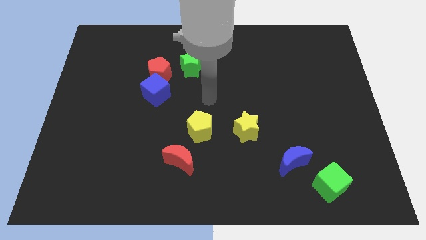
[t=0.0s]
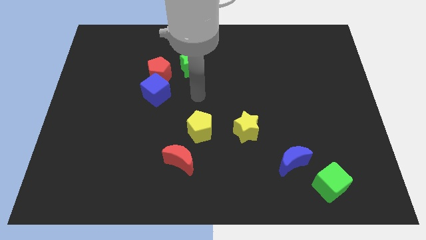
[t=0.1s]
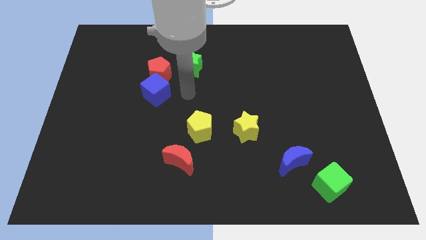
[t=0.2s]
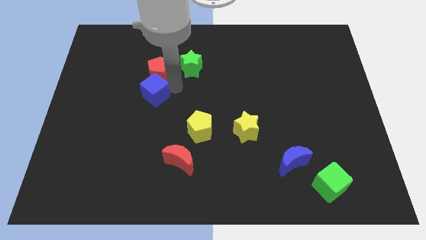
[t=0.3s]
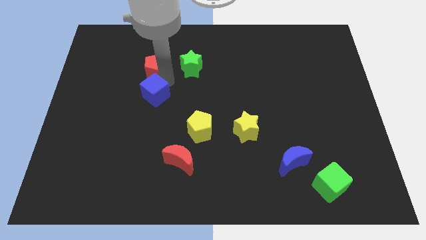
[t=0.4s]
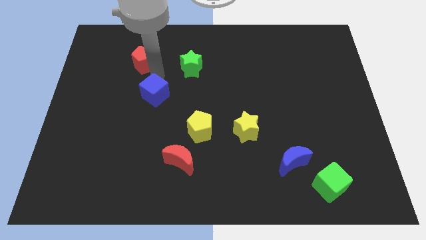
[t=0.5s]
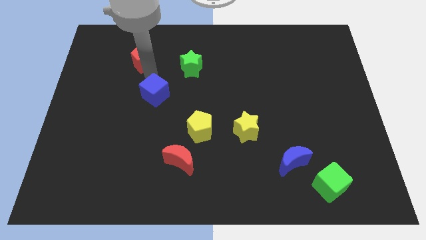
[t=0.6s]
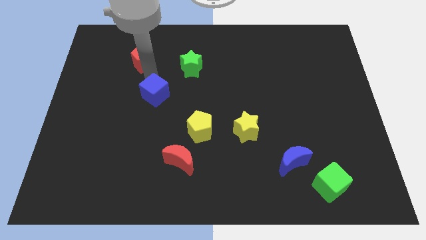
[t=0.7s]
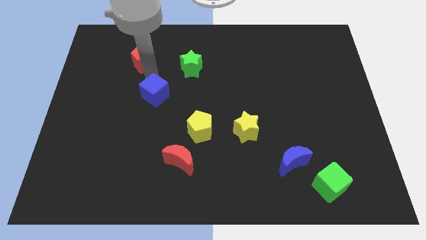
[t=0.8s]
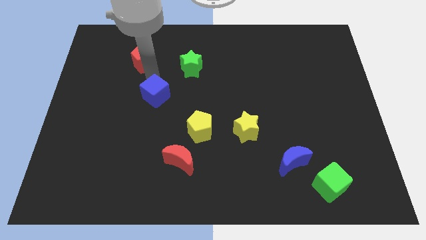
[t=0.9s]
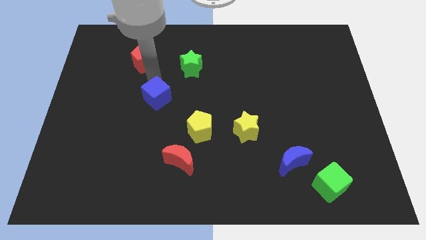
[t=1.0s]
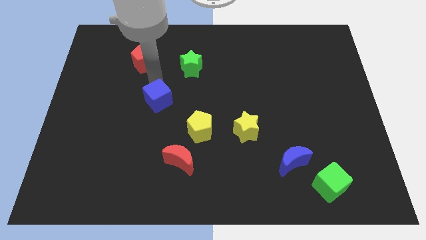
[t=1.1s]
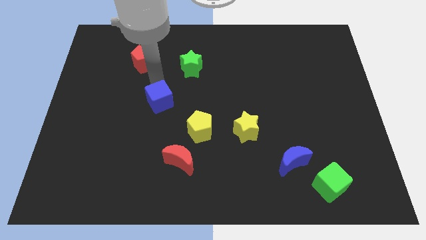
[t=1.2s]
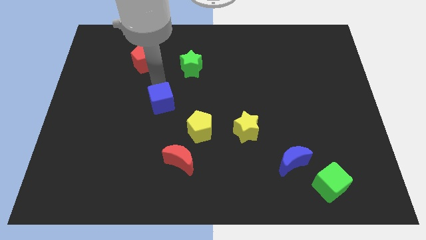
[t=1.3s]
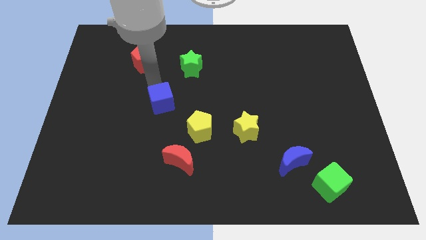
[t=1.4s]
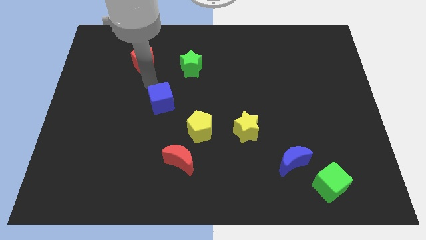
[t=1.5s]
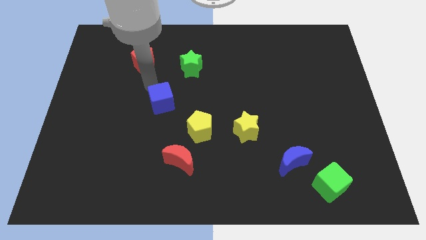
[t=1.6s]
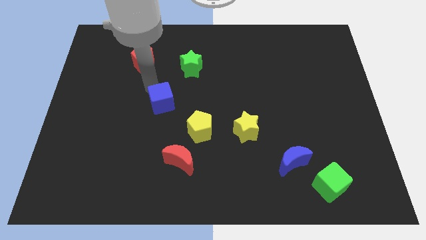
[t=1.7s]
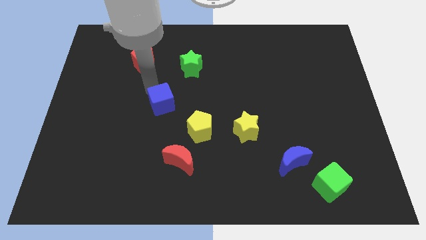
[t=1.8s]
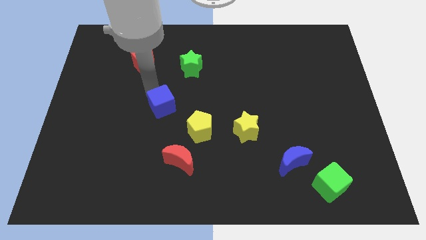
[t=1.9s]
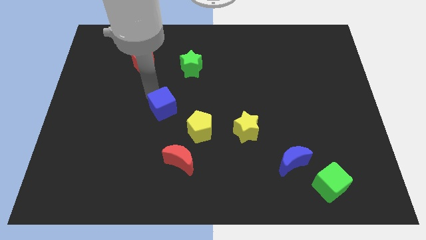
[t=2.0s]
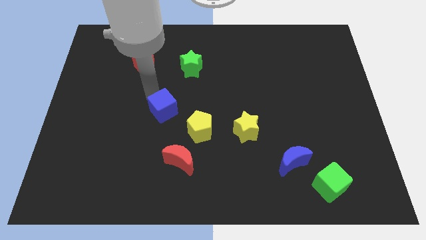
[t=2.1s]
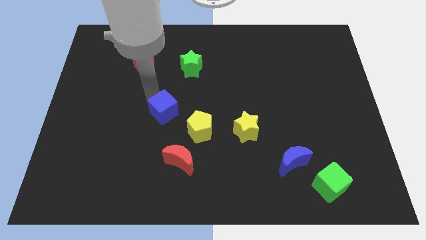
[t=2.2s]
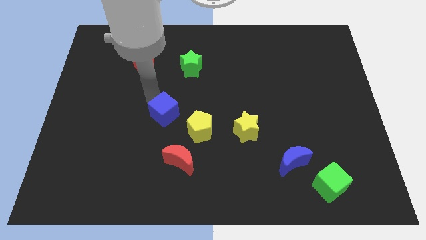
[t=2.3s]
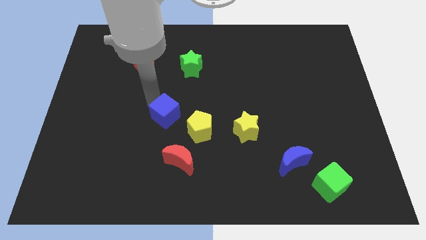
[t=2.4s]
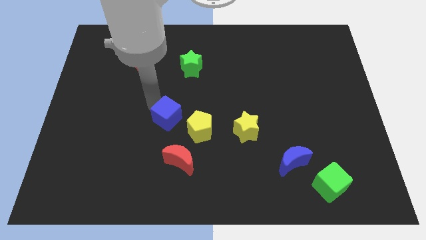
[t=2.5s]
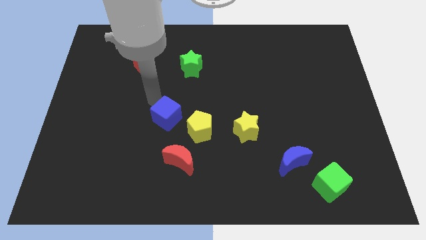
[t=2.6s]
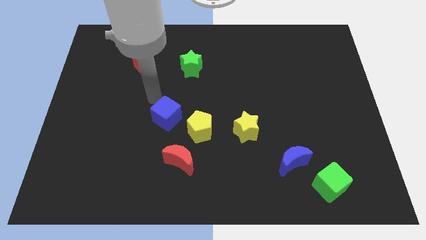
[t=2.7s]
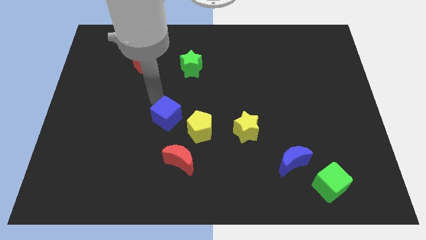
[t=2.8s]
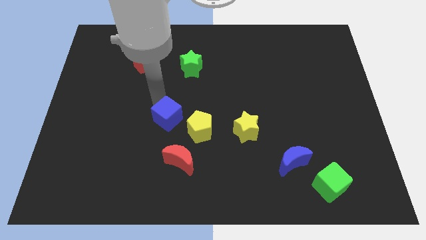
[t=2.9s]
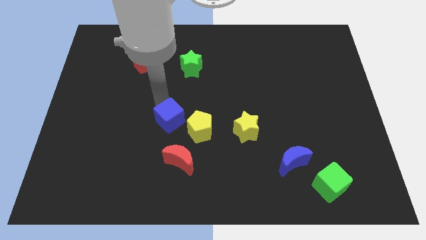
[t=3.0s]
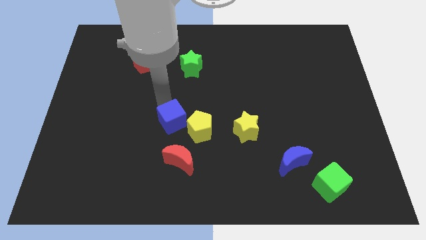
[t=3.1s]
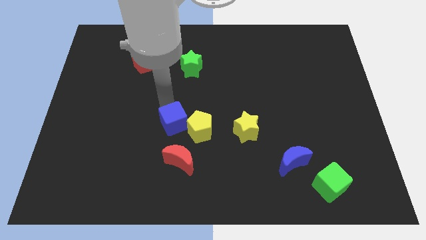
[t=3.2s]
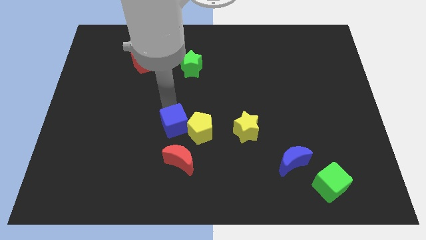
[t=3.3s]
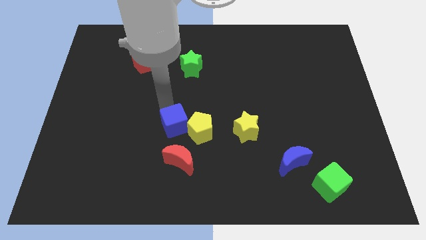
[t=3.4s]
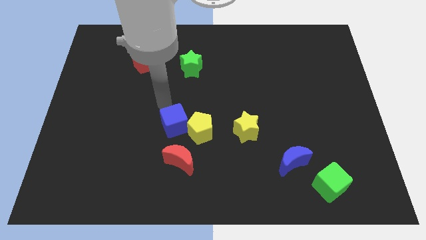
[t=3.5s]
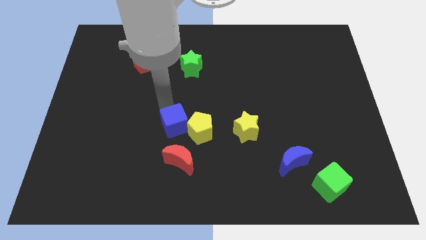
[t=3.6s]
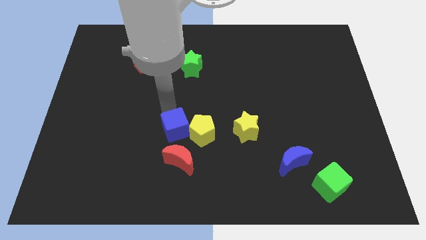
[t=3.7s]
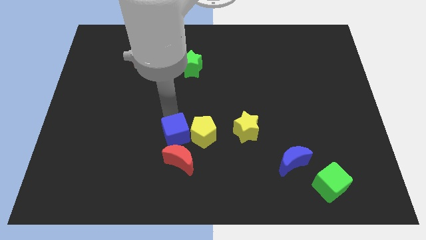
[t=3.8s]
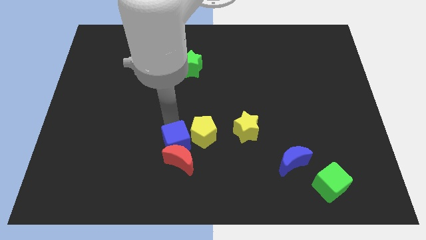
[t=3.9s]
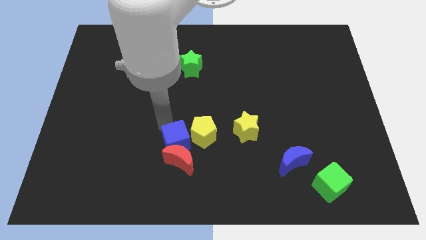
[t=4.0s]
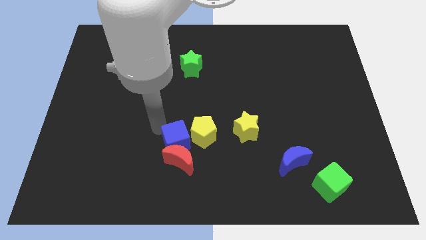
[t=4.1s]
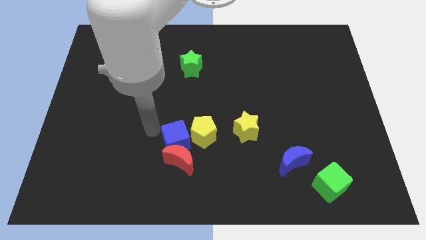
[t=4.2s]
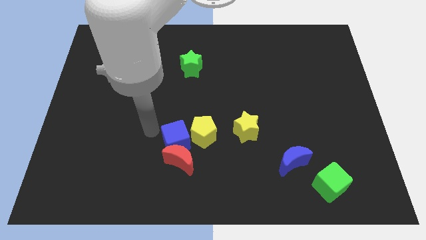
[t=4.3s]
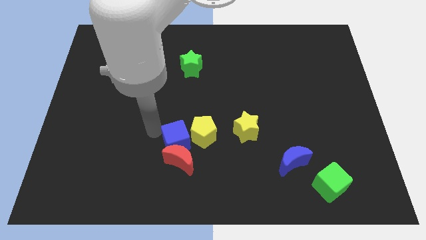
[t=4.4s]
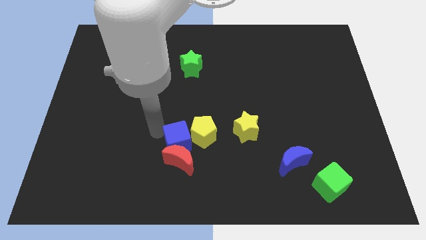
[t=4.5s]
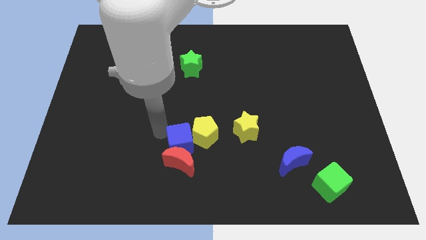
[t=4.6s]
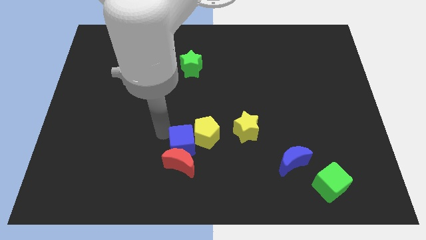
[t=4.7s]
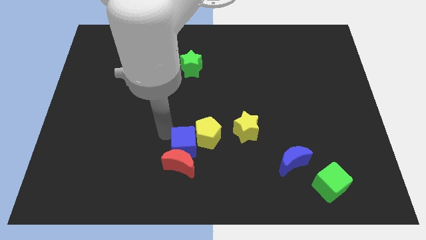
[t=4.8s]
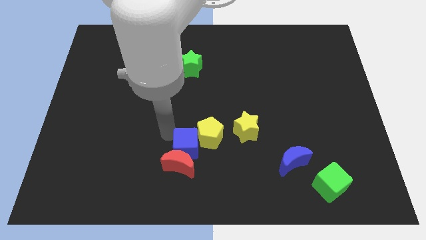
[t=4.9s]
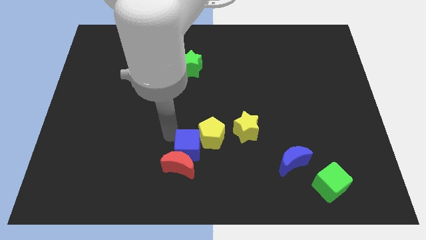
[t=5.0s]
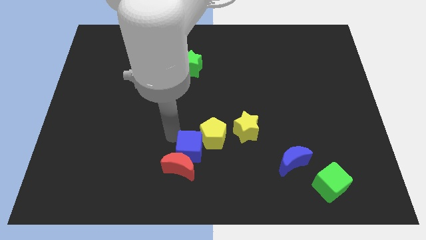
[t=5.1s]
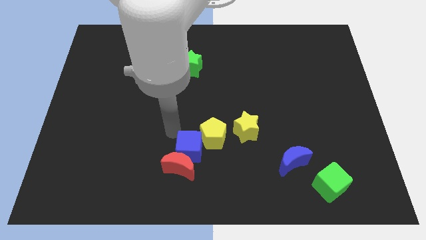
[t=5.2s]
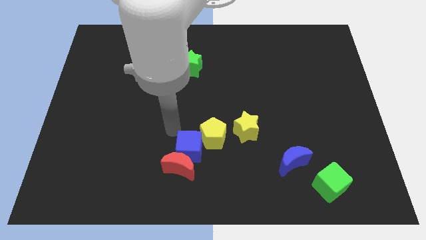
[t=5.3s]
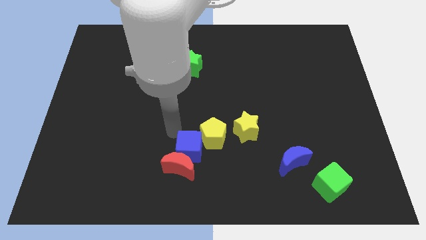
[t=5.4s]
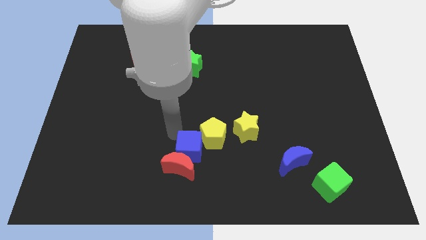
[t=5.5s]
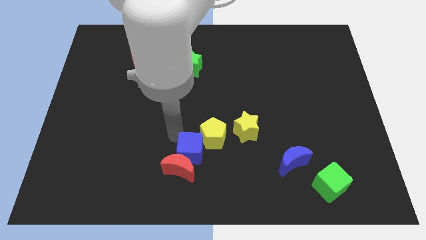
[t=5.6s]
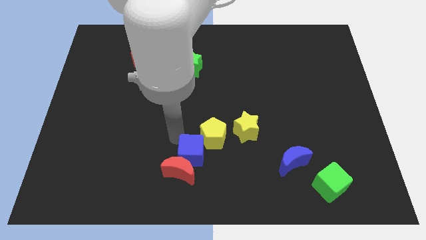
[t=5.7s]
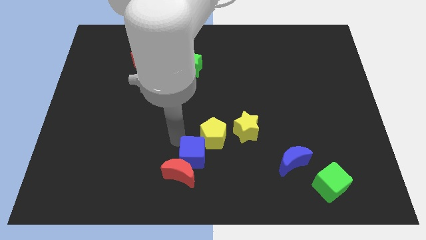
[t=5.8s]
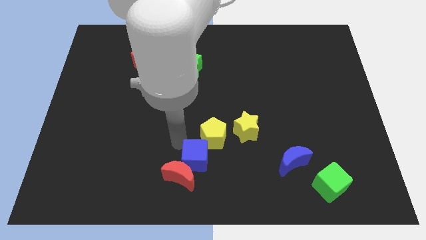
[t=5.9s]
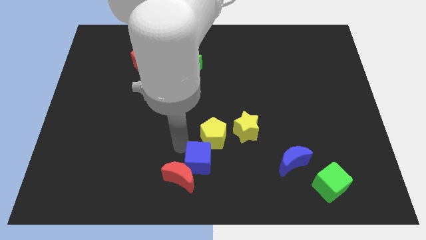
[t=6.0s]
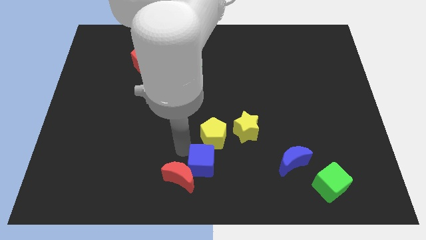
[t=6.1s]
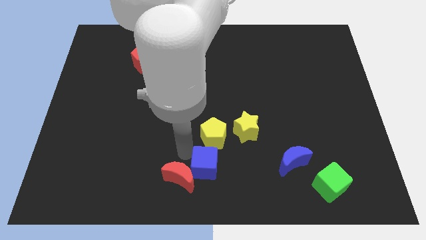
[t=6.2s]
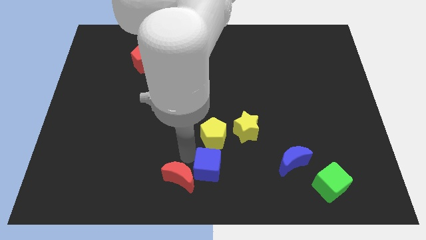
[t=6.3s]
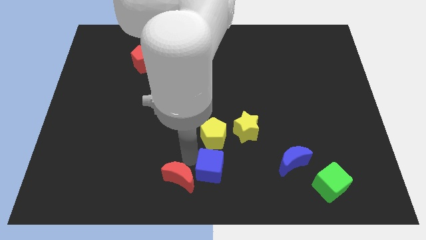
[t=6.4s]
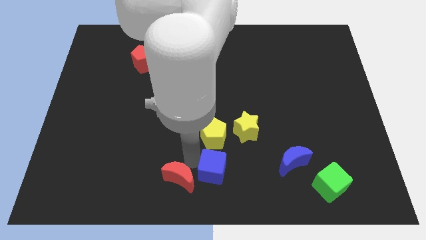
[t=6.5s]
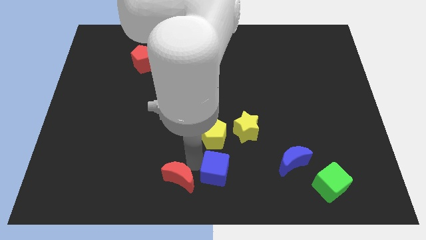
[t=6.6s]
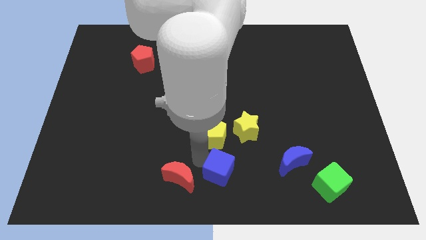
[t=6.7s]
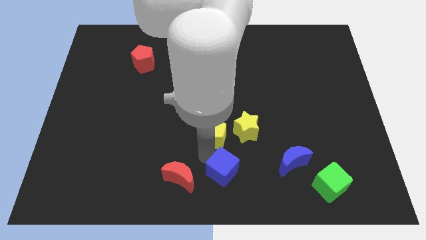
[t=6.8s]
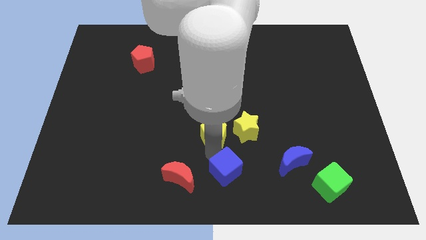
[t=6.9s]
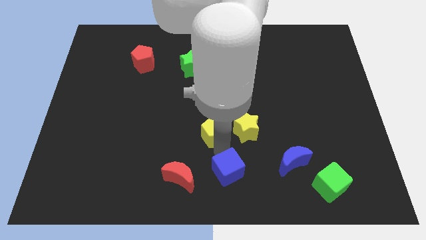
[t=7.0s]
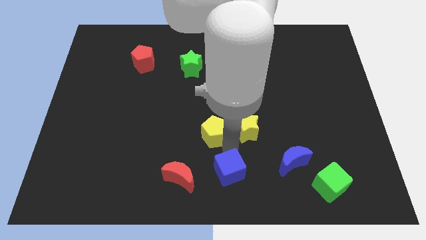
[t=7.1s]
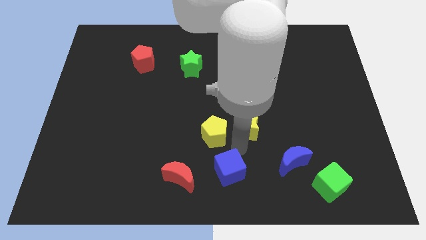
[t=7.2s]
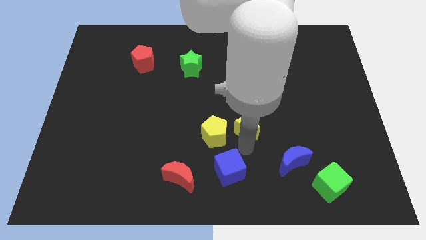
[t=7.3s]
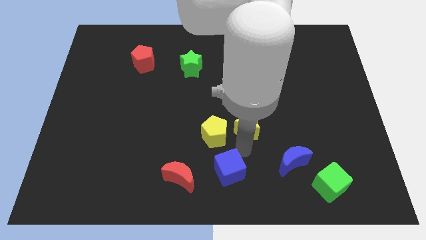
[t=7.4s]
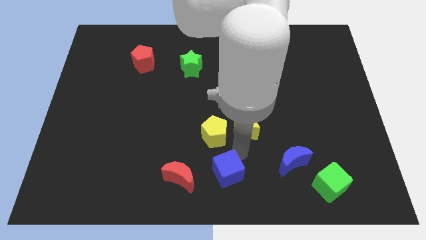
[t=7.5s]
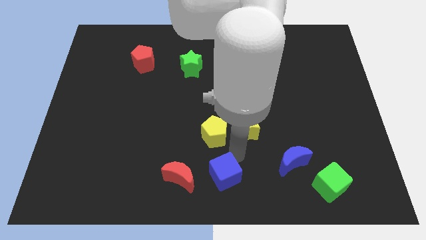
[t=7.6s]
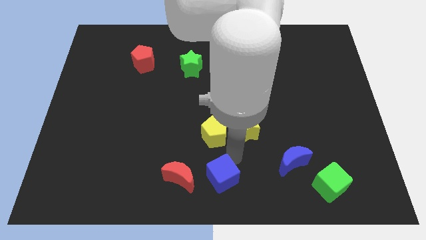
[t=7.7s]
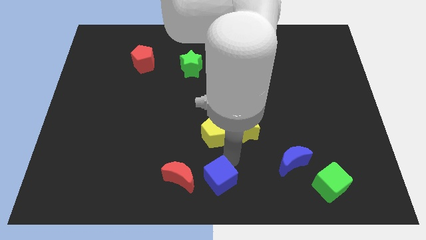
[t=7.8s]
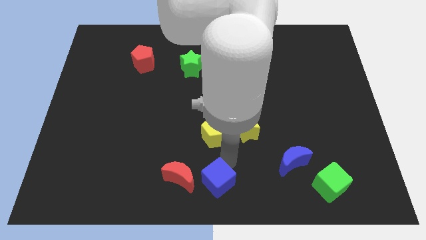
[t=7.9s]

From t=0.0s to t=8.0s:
move the blue cube diagonally down and to the right of the red moon
